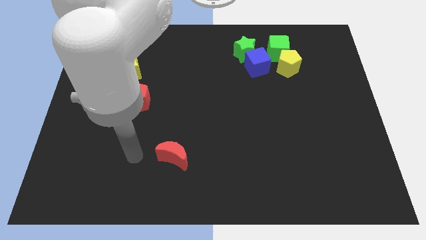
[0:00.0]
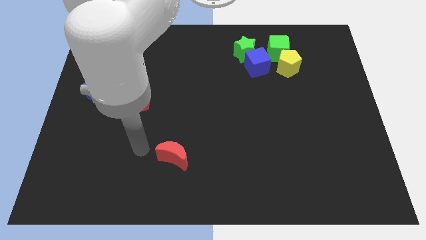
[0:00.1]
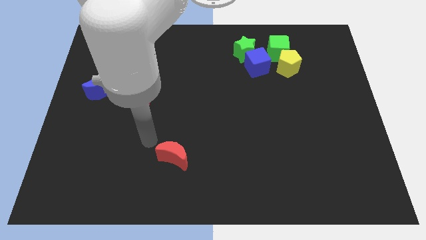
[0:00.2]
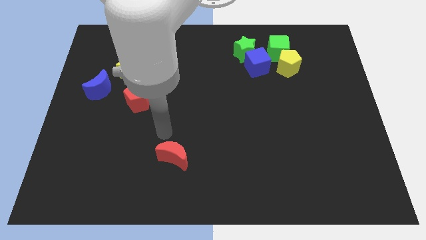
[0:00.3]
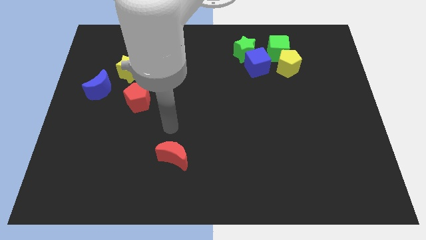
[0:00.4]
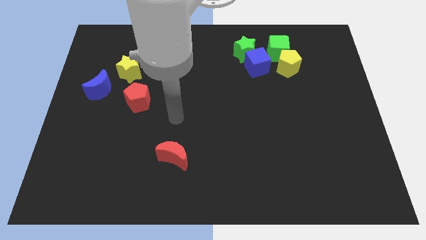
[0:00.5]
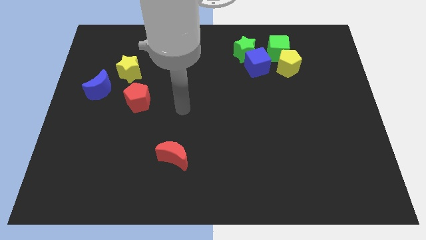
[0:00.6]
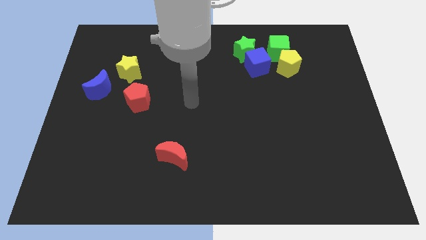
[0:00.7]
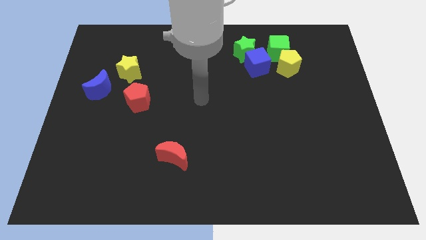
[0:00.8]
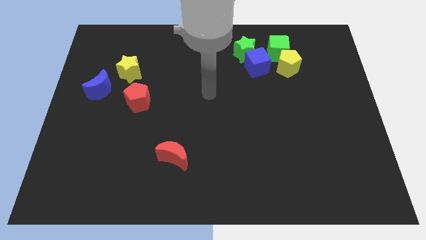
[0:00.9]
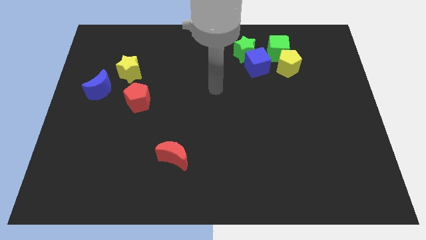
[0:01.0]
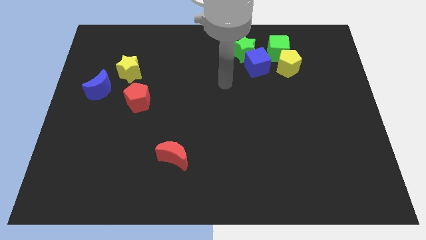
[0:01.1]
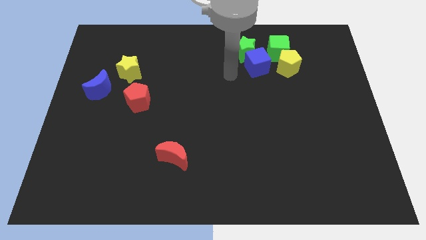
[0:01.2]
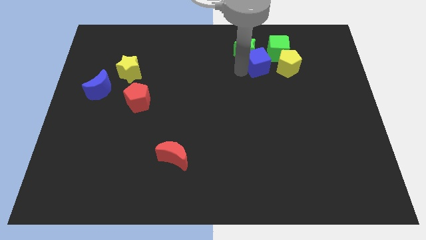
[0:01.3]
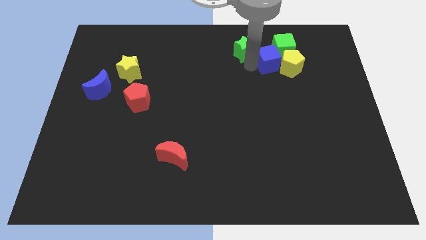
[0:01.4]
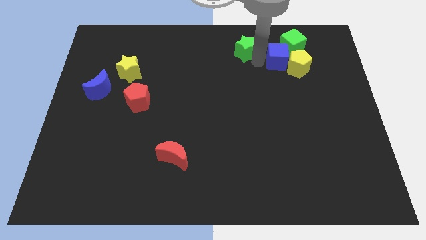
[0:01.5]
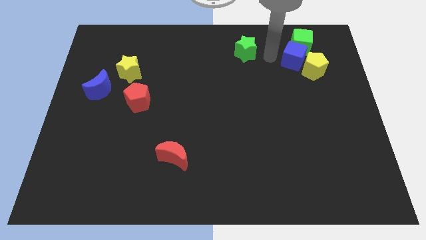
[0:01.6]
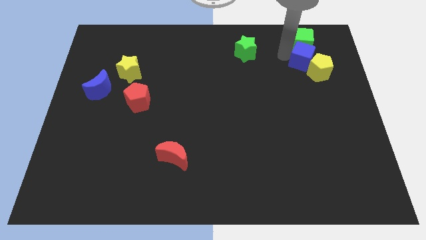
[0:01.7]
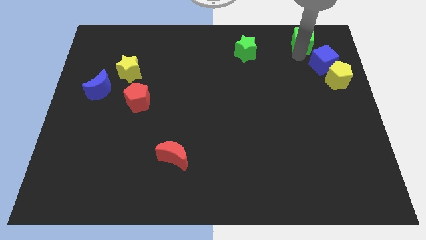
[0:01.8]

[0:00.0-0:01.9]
move the yellow pentagon away from the green cube and blue cube

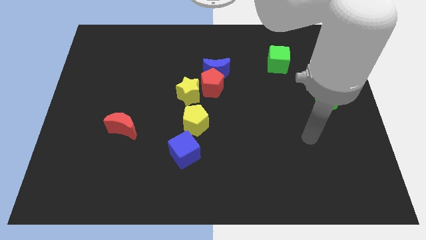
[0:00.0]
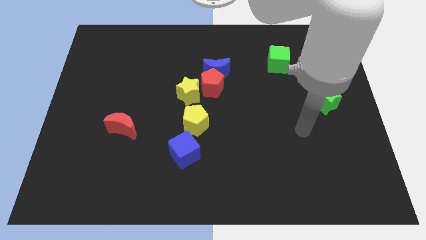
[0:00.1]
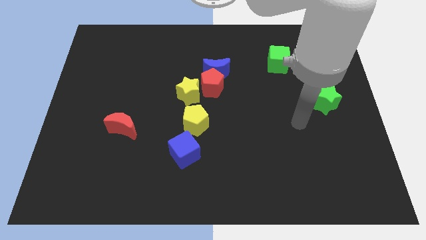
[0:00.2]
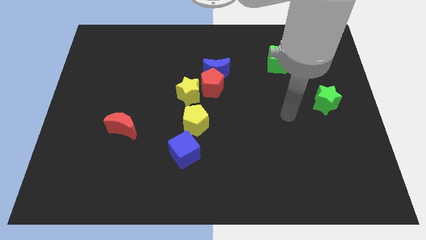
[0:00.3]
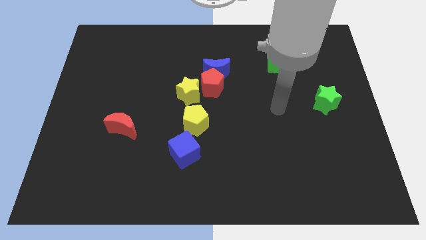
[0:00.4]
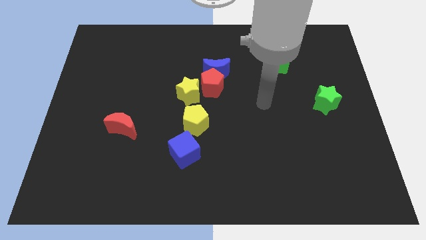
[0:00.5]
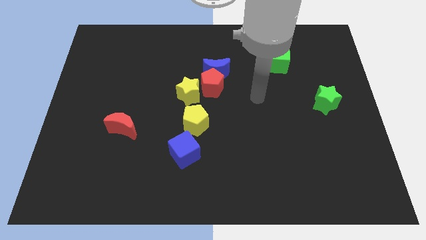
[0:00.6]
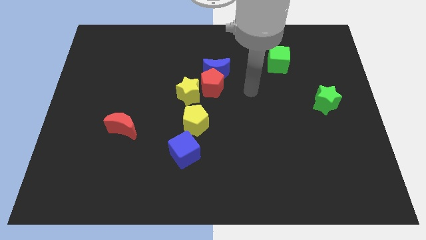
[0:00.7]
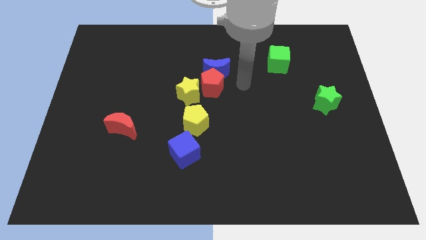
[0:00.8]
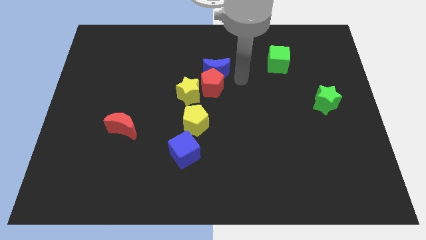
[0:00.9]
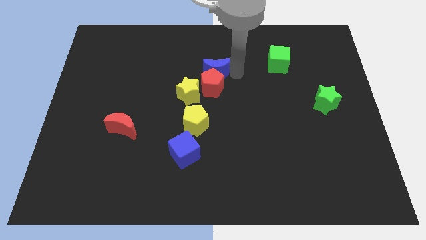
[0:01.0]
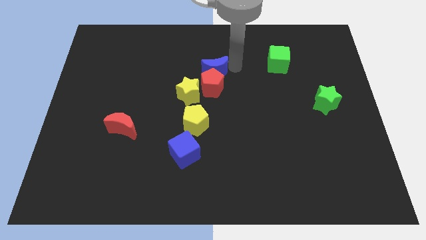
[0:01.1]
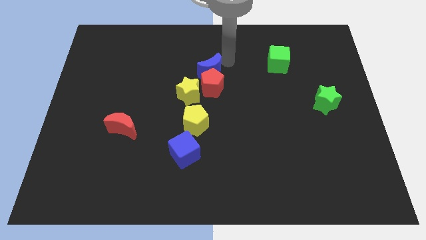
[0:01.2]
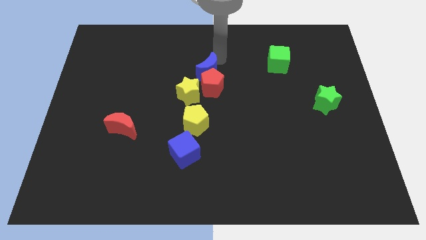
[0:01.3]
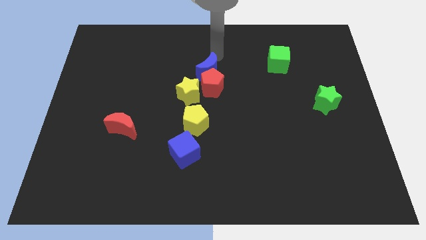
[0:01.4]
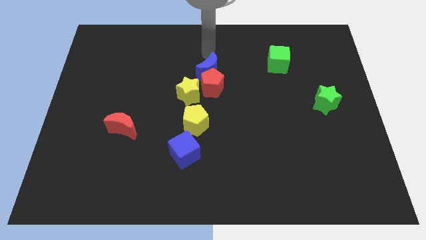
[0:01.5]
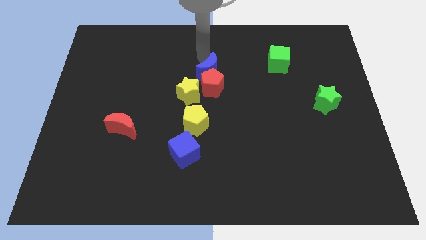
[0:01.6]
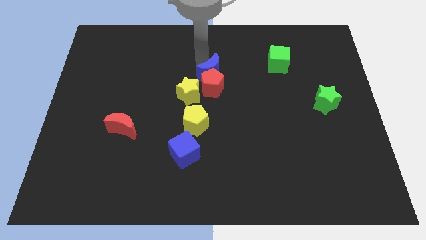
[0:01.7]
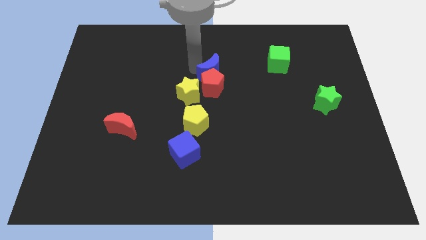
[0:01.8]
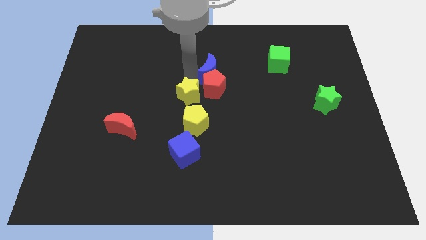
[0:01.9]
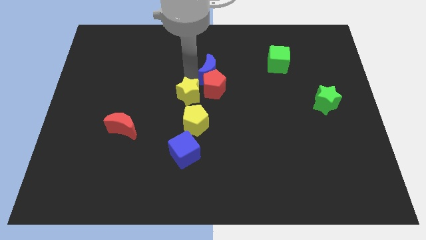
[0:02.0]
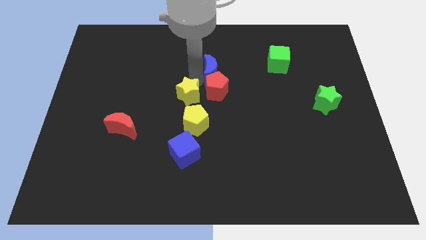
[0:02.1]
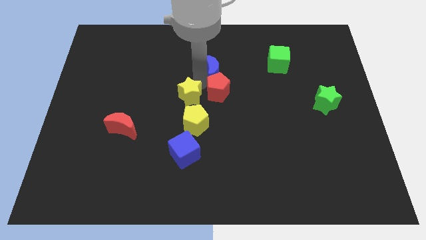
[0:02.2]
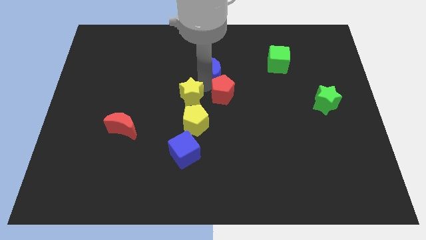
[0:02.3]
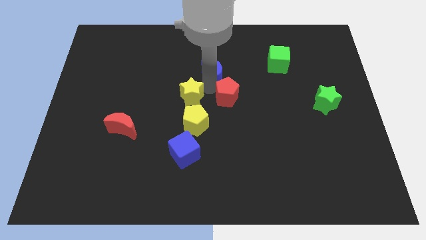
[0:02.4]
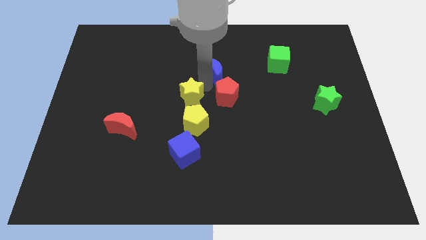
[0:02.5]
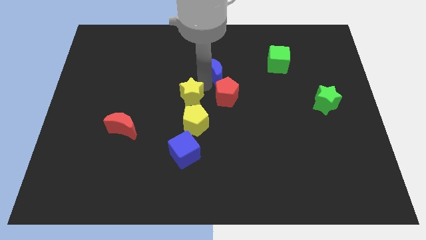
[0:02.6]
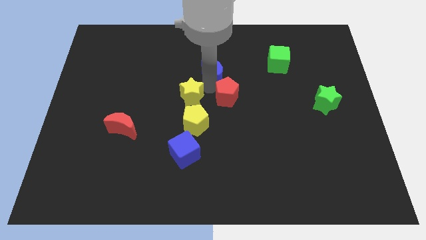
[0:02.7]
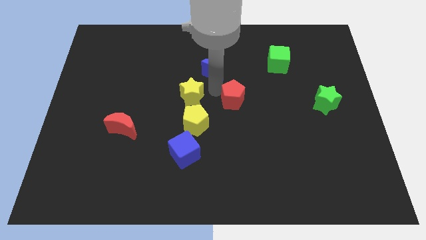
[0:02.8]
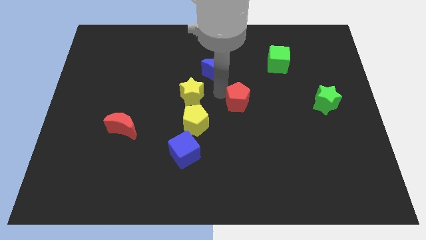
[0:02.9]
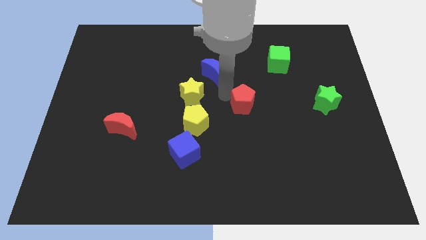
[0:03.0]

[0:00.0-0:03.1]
pull the red pentagon apart from the blue moon and yellow star

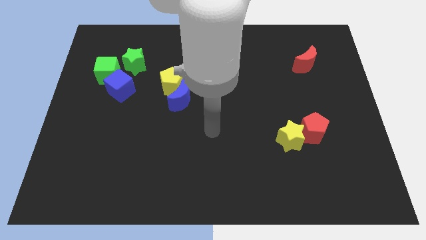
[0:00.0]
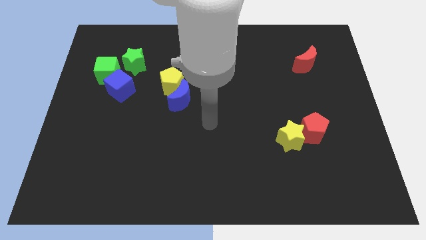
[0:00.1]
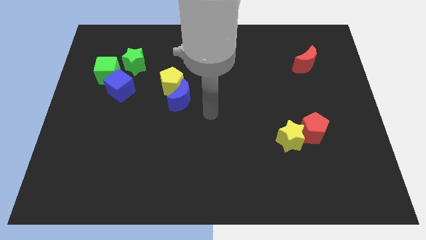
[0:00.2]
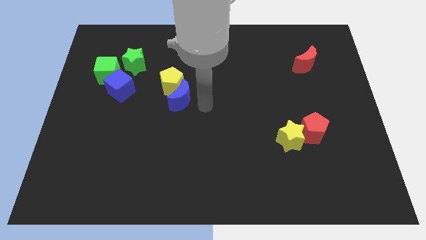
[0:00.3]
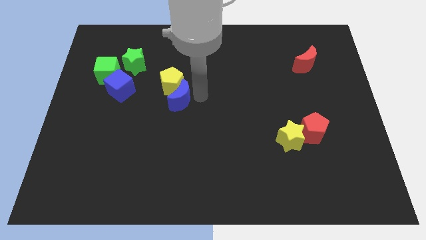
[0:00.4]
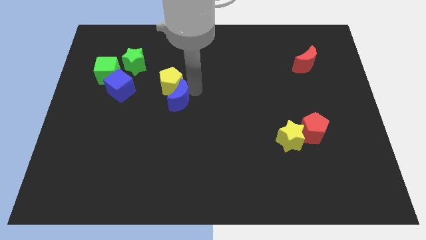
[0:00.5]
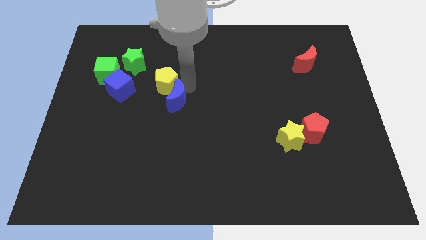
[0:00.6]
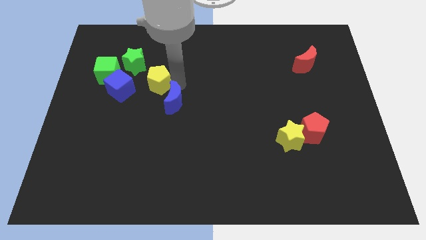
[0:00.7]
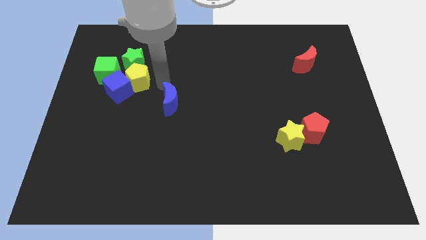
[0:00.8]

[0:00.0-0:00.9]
pull the blue moon apart from the yellow pentagon

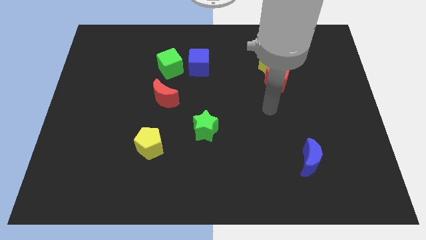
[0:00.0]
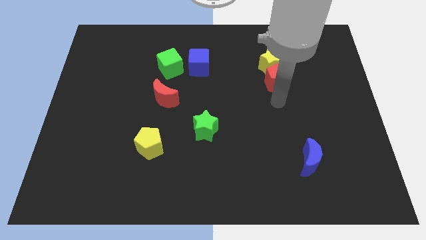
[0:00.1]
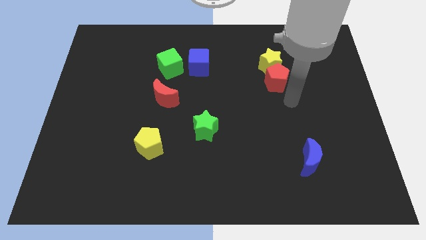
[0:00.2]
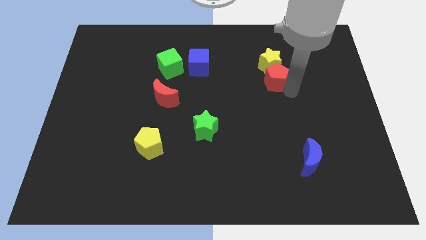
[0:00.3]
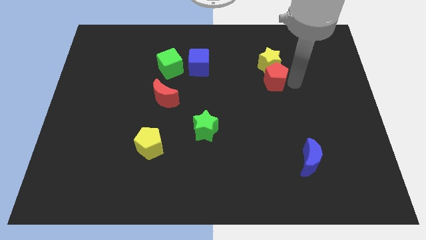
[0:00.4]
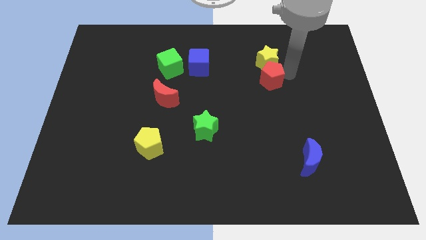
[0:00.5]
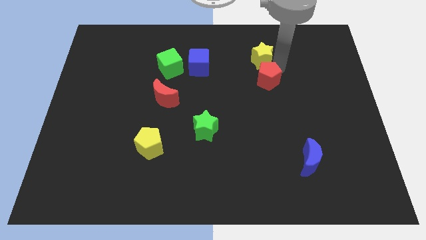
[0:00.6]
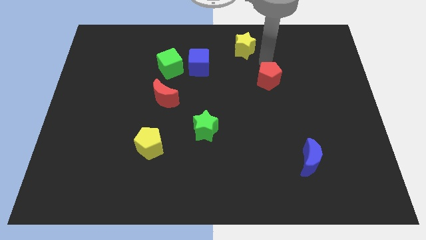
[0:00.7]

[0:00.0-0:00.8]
separate the red pentagon from the yellow star

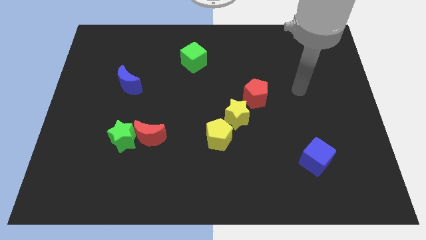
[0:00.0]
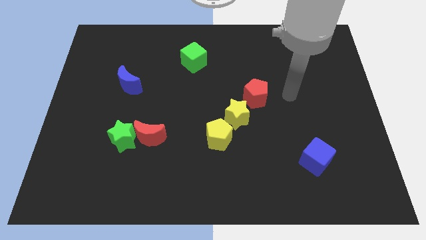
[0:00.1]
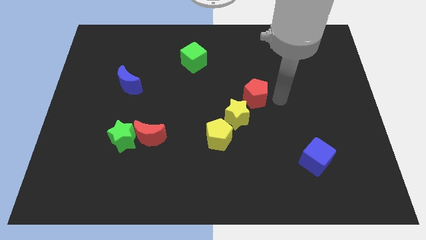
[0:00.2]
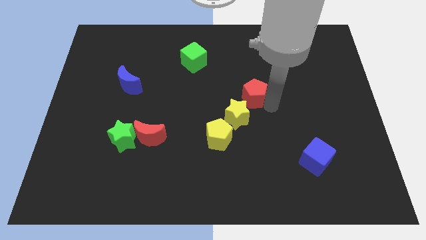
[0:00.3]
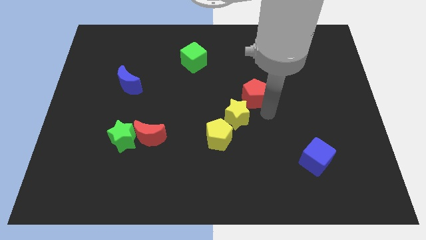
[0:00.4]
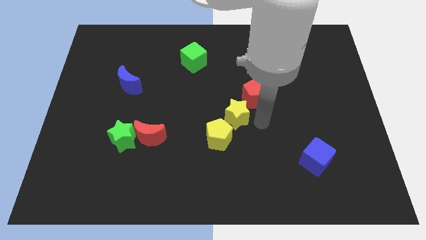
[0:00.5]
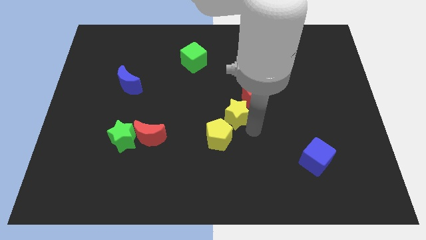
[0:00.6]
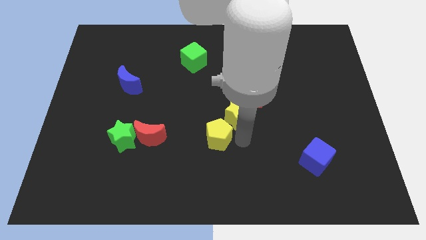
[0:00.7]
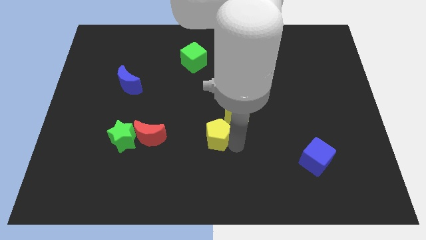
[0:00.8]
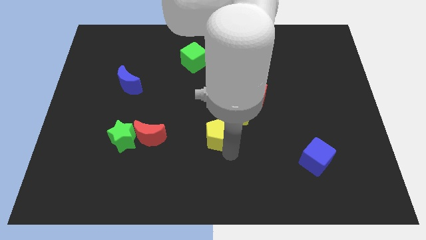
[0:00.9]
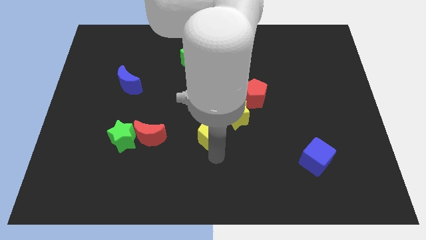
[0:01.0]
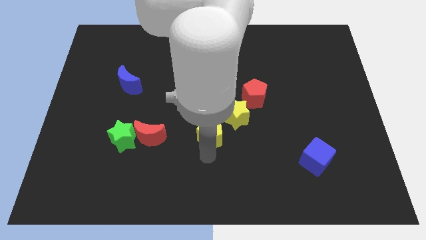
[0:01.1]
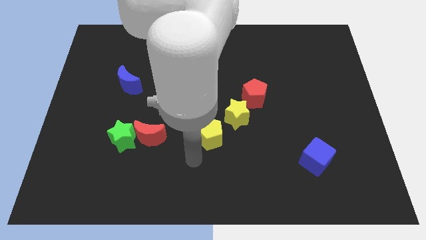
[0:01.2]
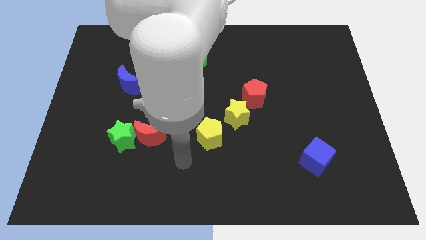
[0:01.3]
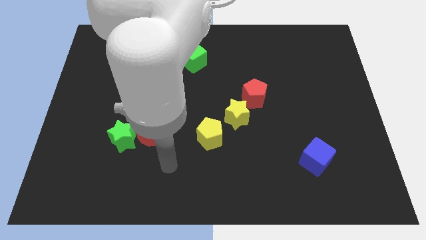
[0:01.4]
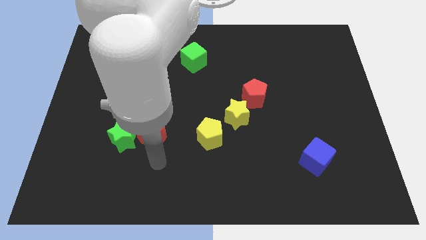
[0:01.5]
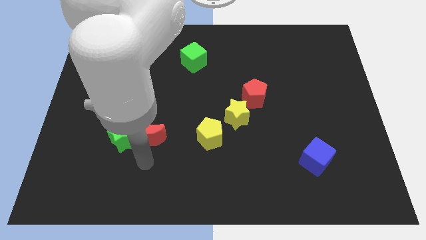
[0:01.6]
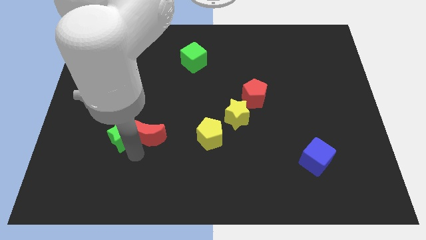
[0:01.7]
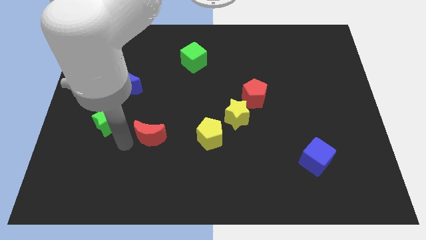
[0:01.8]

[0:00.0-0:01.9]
separate the red moon from the green star

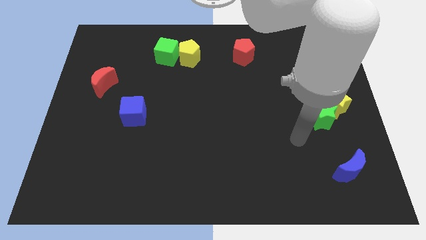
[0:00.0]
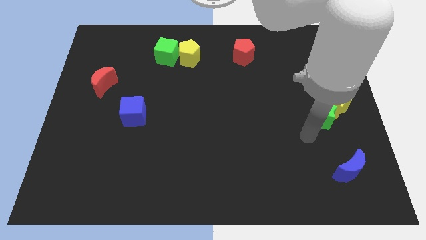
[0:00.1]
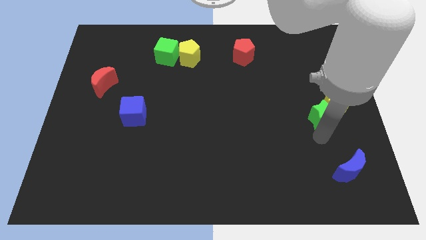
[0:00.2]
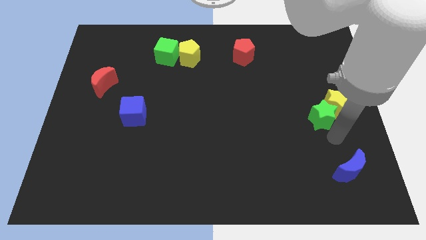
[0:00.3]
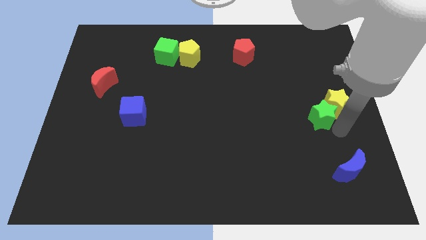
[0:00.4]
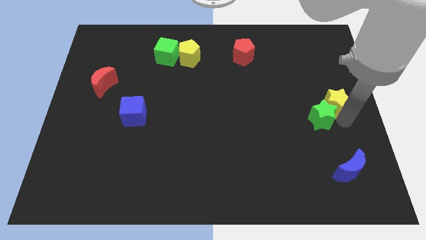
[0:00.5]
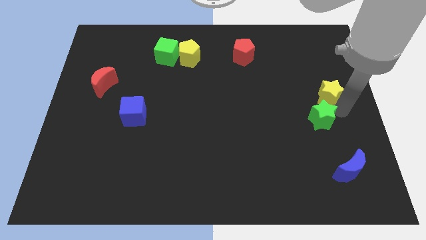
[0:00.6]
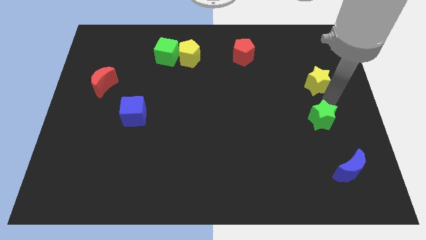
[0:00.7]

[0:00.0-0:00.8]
separate the green star from the yellow star
